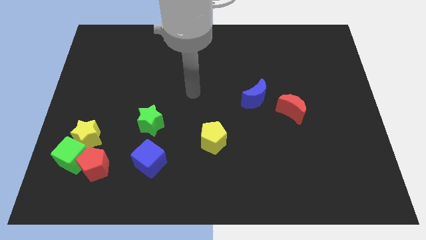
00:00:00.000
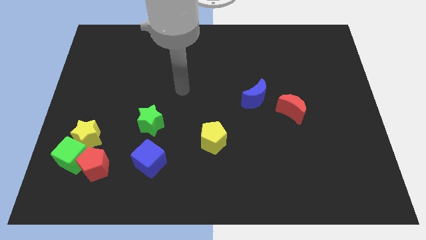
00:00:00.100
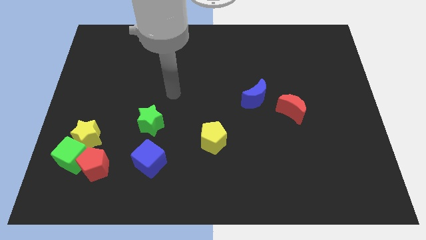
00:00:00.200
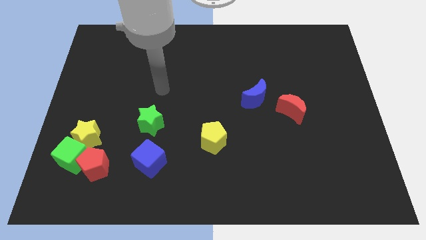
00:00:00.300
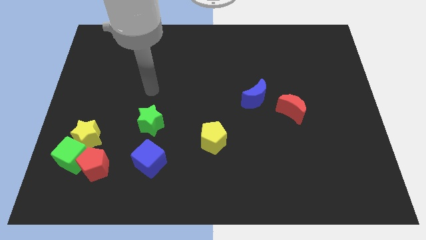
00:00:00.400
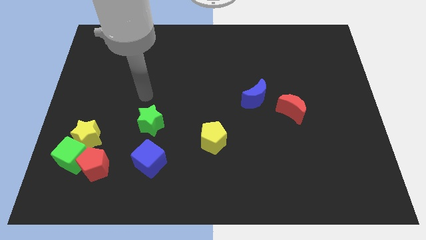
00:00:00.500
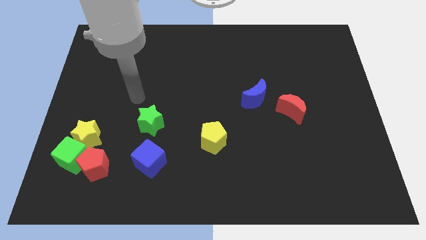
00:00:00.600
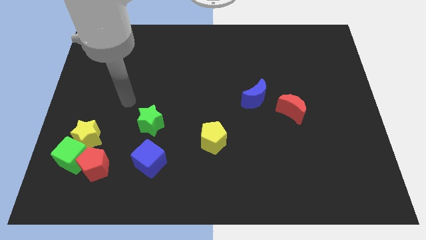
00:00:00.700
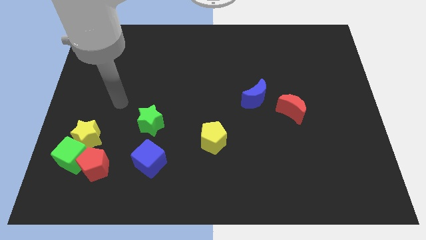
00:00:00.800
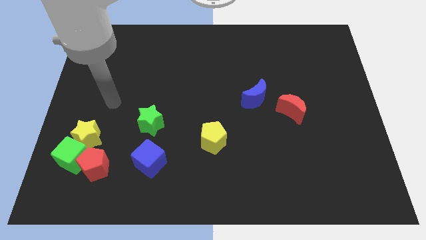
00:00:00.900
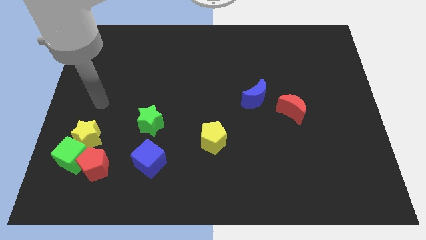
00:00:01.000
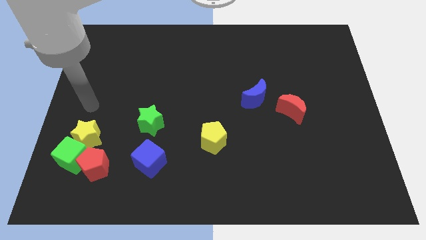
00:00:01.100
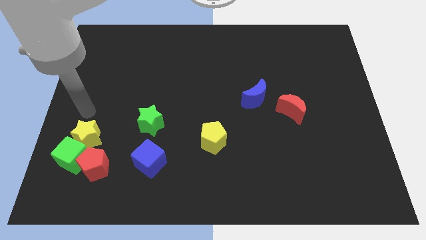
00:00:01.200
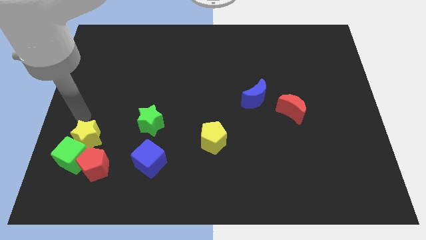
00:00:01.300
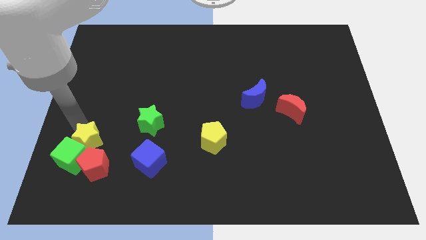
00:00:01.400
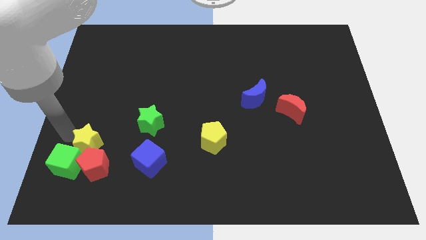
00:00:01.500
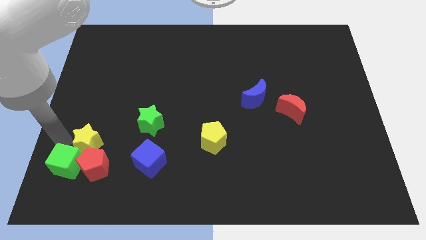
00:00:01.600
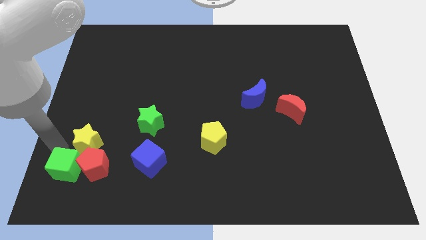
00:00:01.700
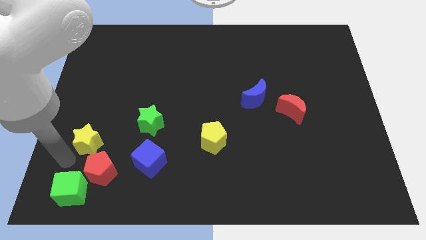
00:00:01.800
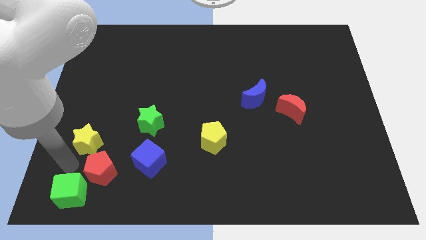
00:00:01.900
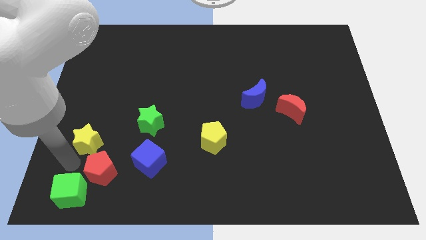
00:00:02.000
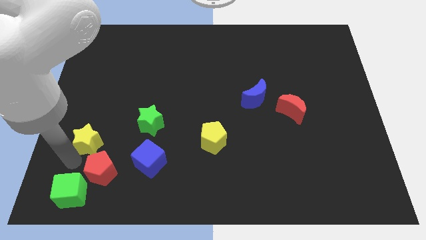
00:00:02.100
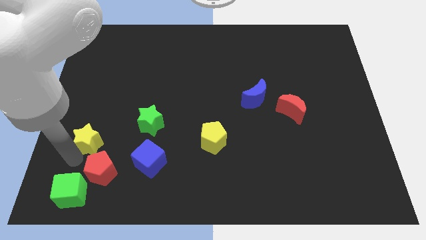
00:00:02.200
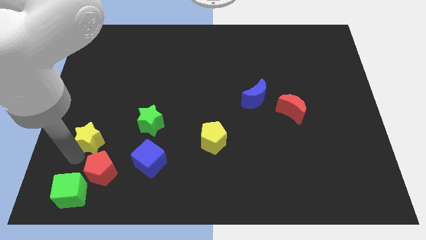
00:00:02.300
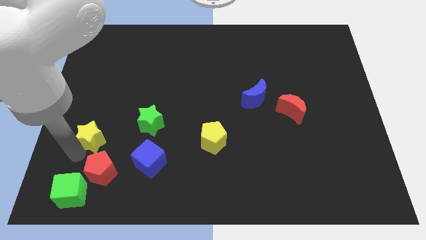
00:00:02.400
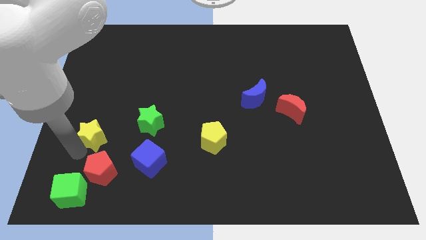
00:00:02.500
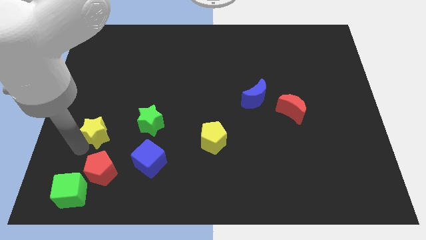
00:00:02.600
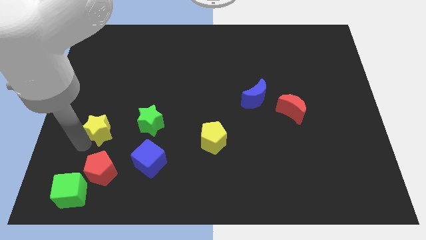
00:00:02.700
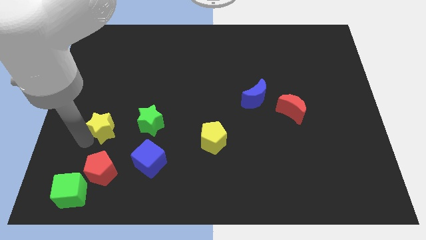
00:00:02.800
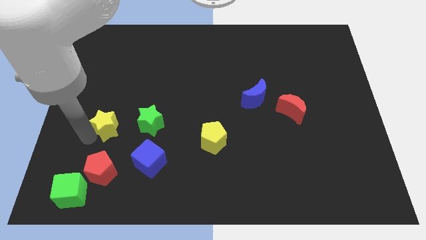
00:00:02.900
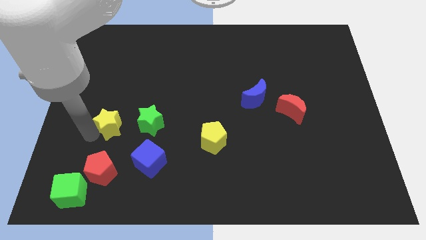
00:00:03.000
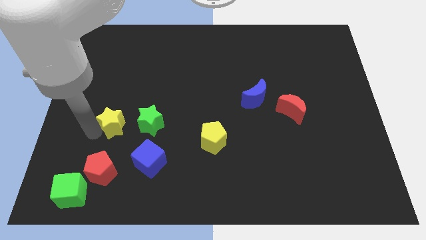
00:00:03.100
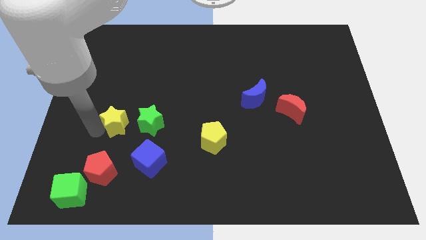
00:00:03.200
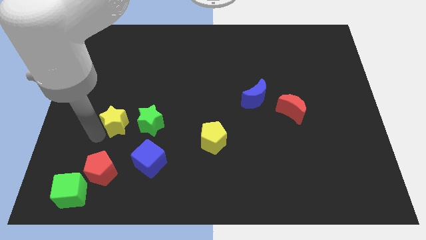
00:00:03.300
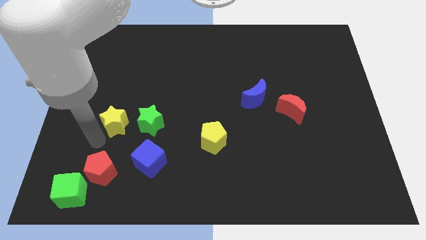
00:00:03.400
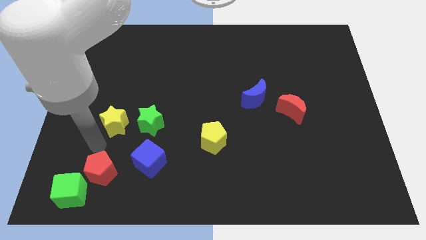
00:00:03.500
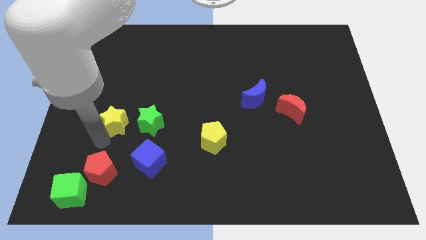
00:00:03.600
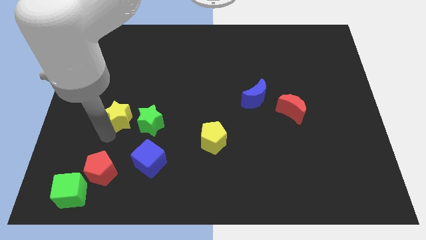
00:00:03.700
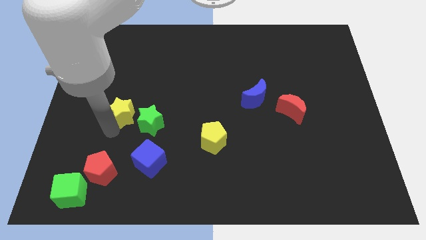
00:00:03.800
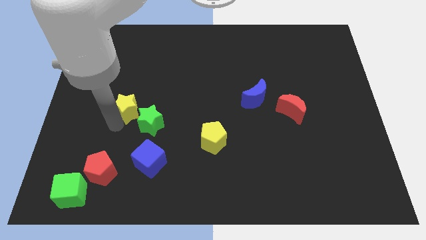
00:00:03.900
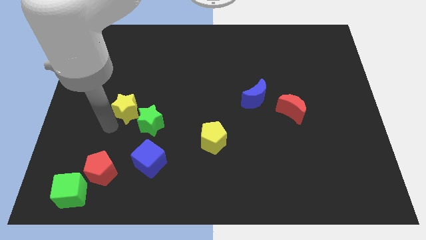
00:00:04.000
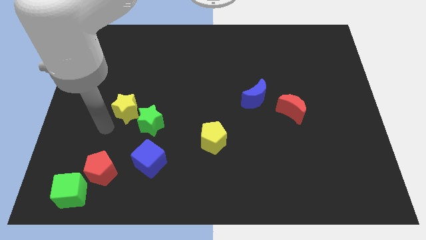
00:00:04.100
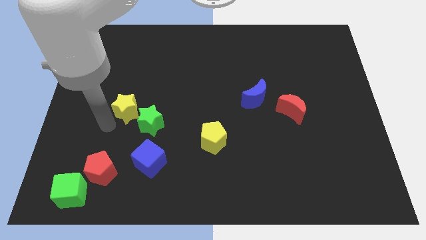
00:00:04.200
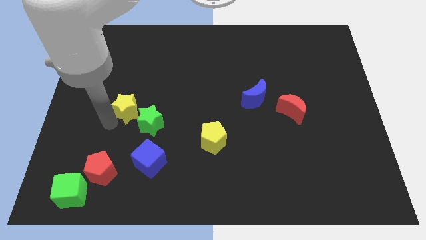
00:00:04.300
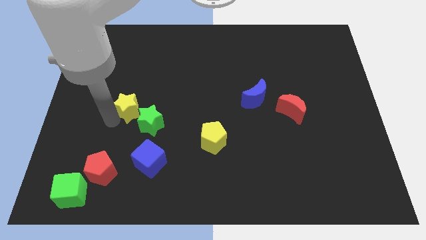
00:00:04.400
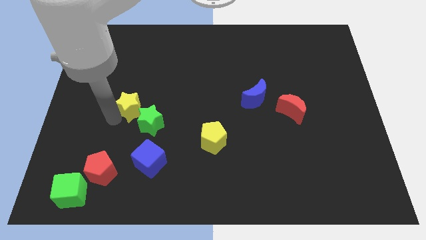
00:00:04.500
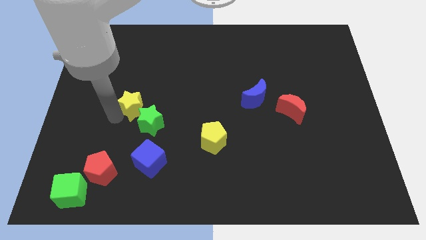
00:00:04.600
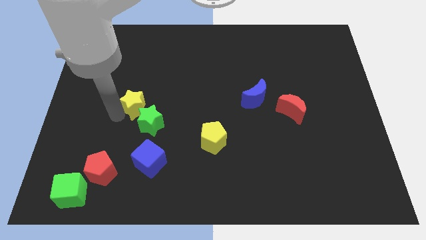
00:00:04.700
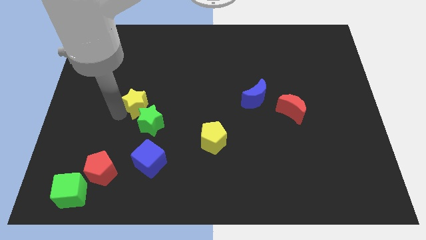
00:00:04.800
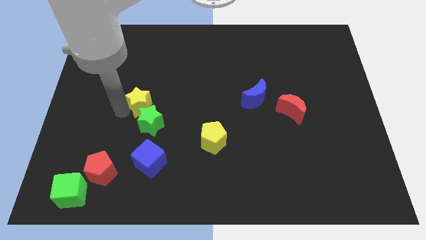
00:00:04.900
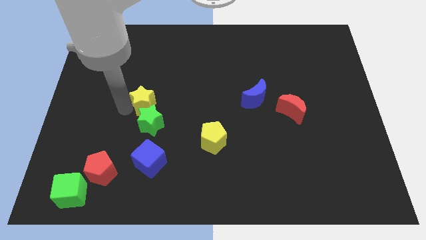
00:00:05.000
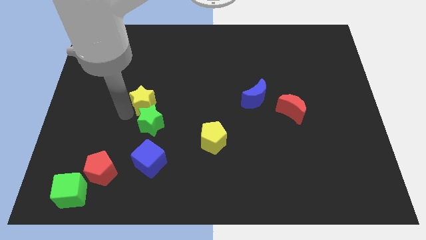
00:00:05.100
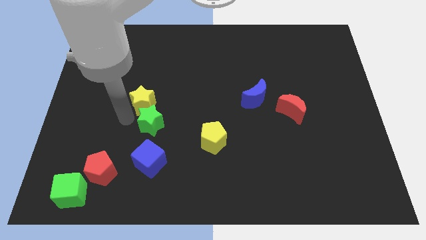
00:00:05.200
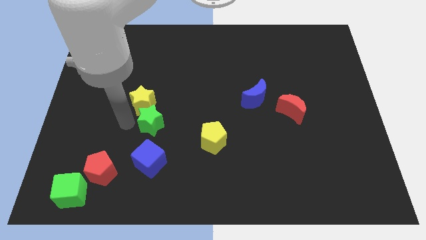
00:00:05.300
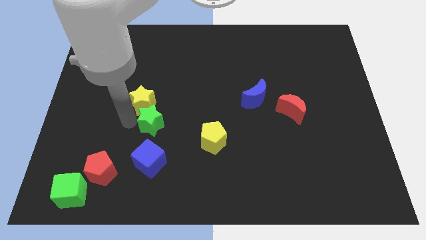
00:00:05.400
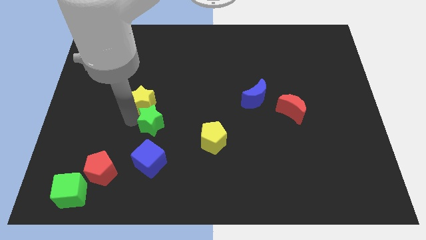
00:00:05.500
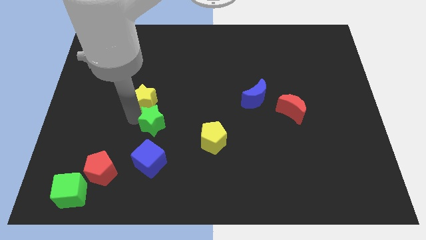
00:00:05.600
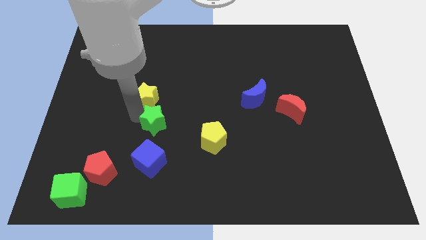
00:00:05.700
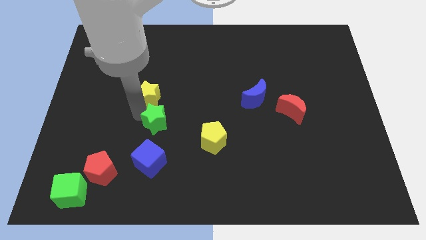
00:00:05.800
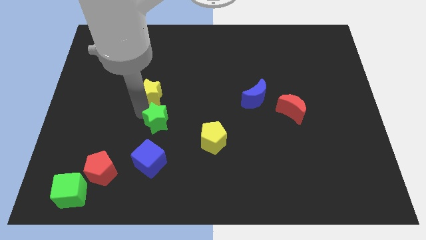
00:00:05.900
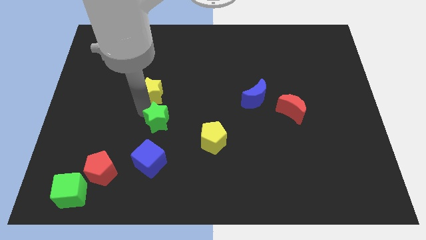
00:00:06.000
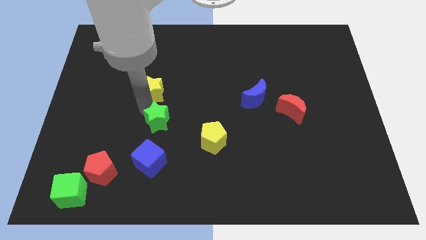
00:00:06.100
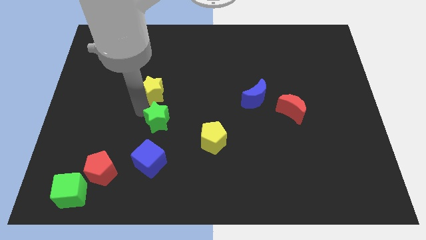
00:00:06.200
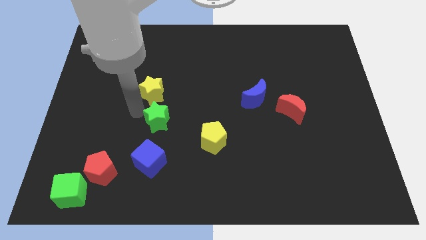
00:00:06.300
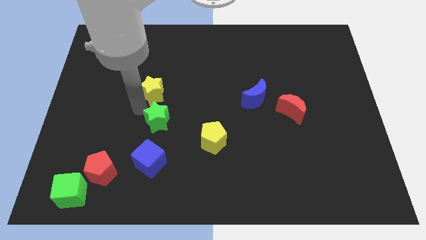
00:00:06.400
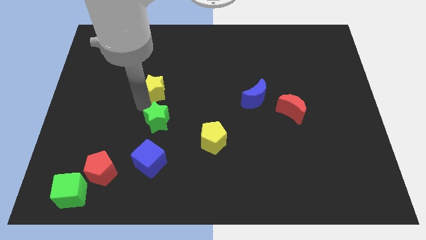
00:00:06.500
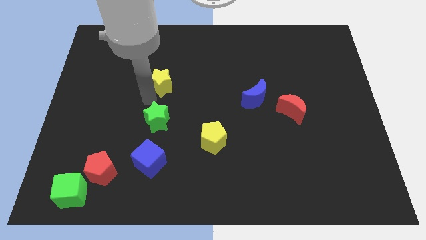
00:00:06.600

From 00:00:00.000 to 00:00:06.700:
push the yellow star up and to the right

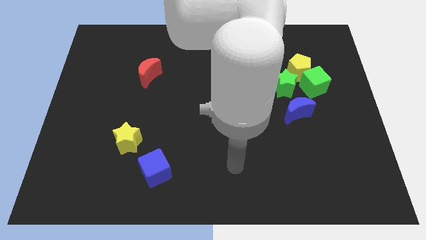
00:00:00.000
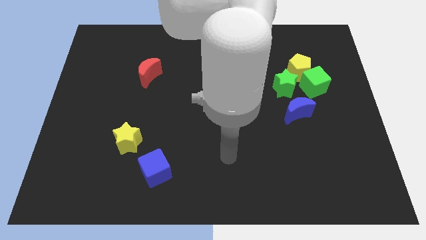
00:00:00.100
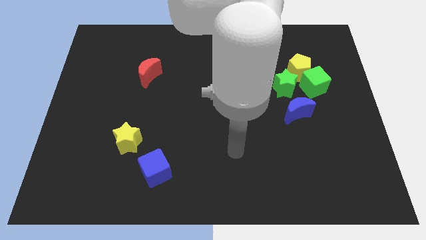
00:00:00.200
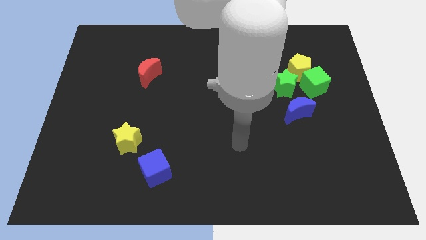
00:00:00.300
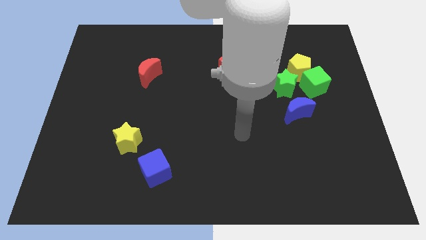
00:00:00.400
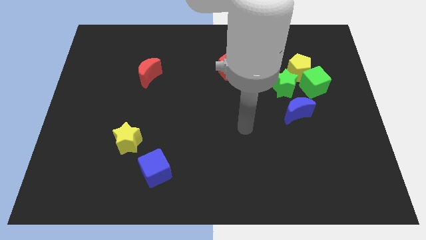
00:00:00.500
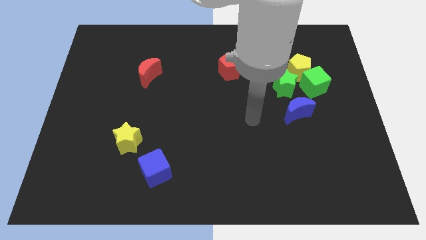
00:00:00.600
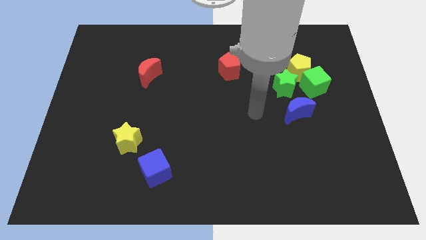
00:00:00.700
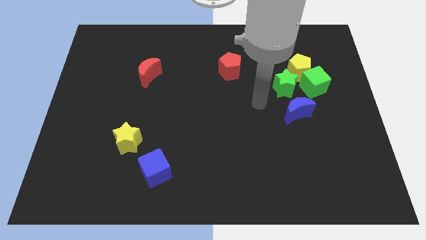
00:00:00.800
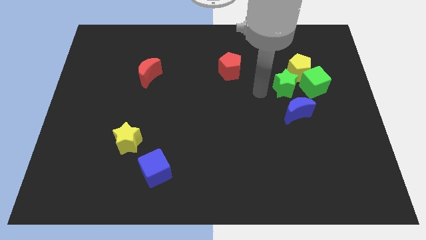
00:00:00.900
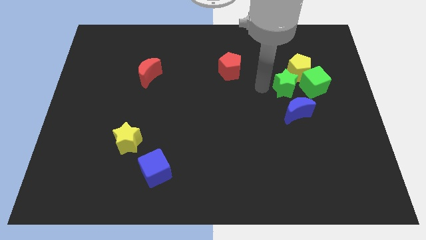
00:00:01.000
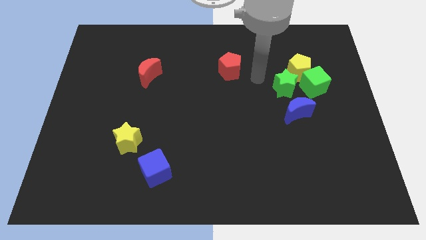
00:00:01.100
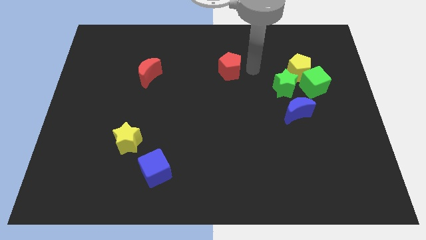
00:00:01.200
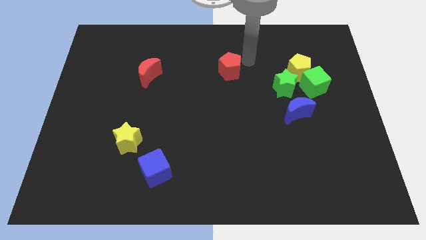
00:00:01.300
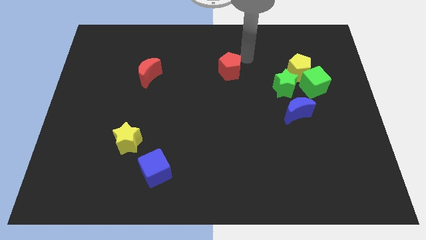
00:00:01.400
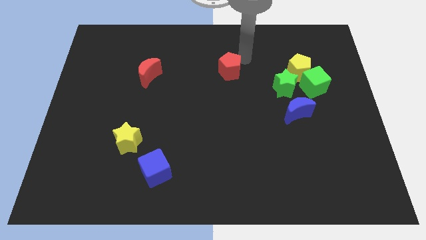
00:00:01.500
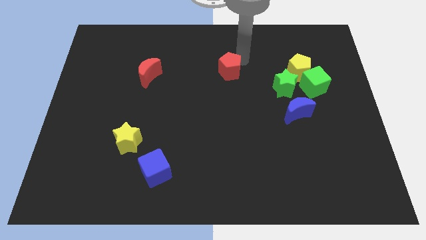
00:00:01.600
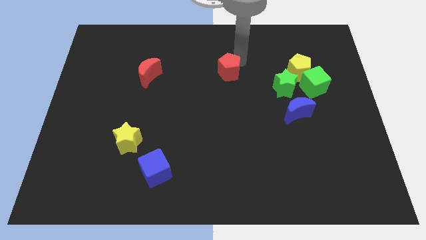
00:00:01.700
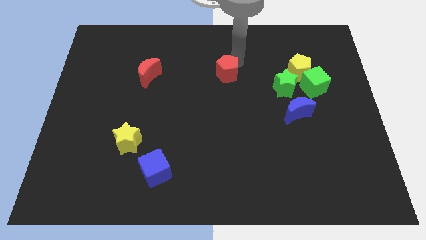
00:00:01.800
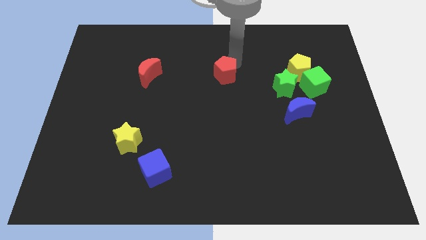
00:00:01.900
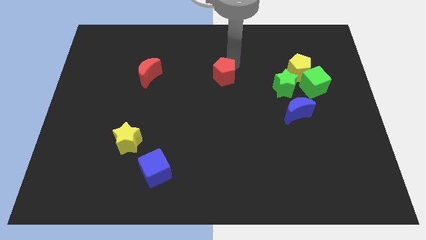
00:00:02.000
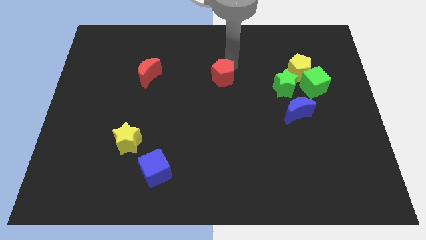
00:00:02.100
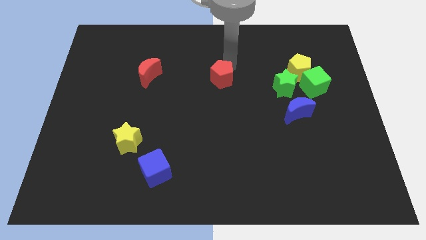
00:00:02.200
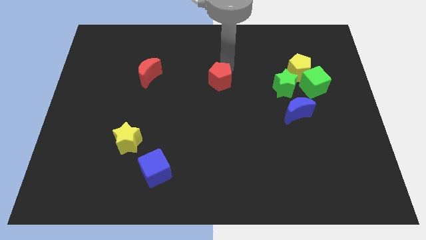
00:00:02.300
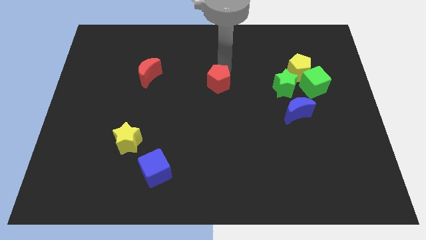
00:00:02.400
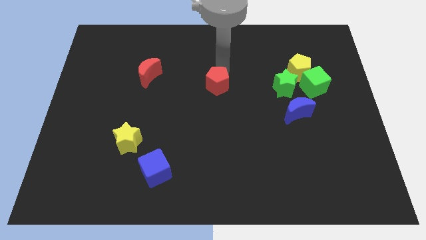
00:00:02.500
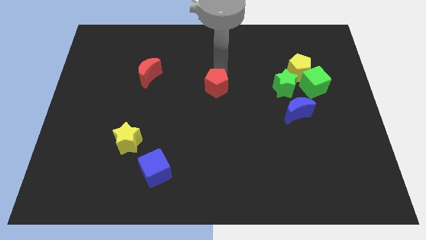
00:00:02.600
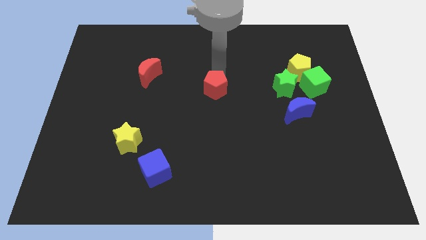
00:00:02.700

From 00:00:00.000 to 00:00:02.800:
slightly push the red pentagon downwards and left
